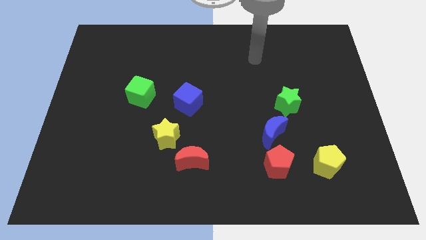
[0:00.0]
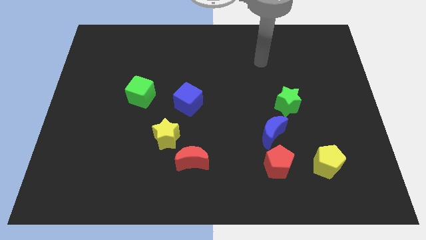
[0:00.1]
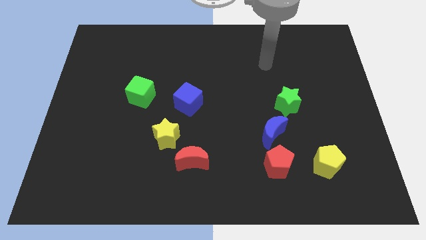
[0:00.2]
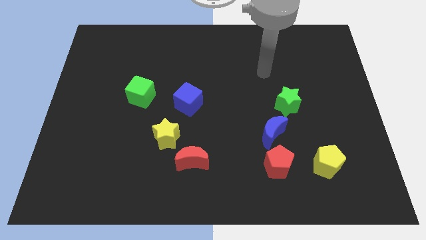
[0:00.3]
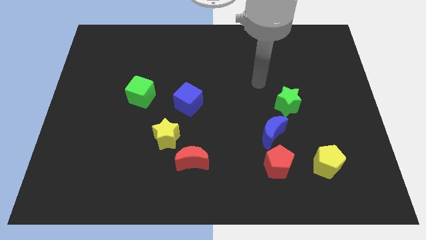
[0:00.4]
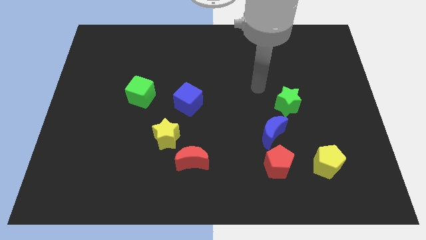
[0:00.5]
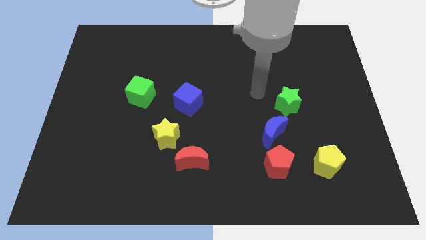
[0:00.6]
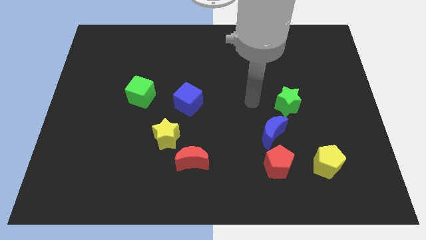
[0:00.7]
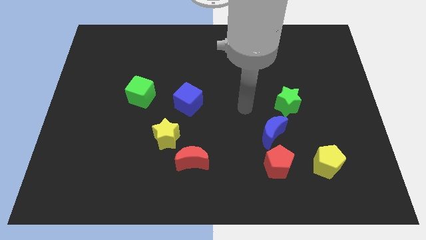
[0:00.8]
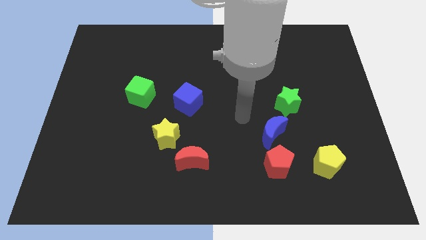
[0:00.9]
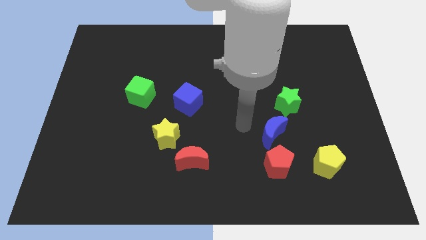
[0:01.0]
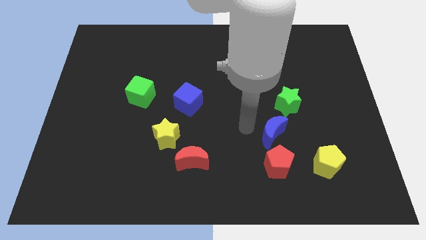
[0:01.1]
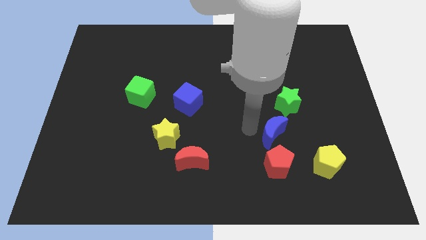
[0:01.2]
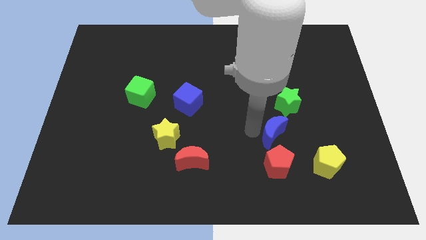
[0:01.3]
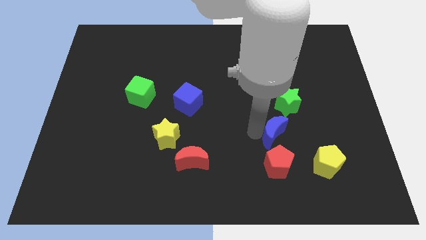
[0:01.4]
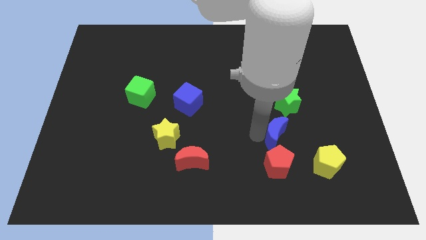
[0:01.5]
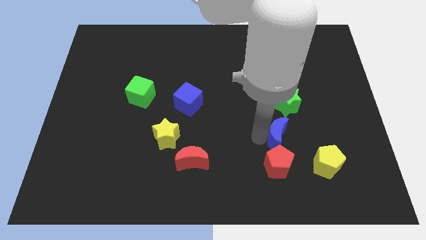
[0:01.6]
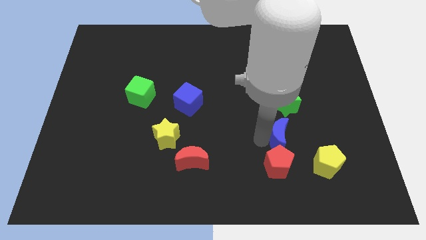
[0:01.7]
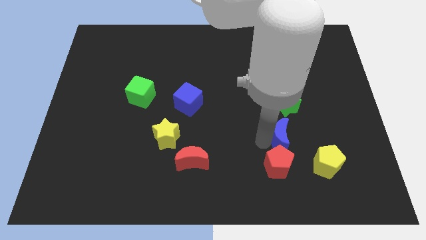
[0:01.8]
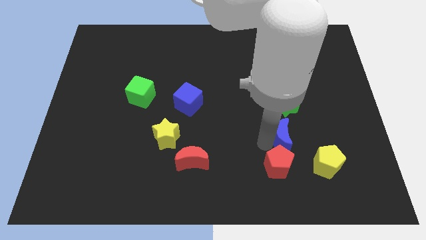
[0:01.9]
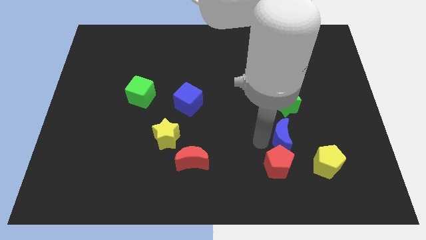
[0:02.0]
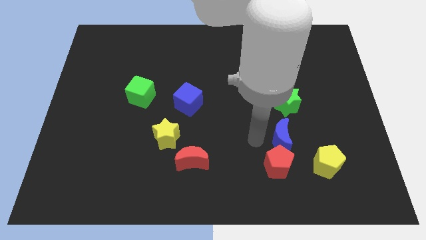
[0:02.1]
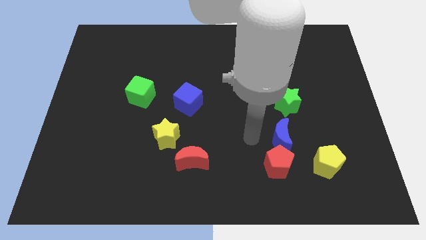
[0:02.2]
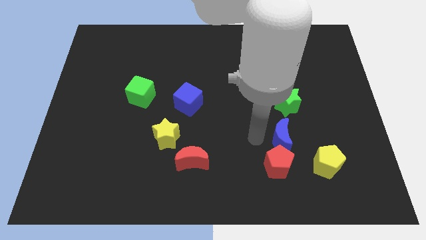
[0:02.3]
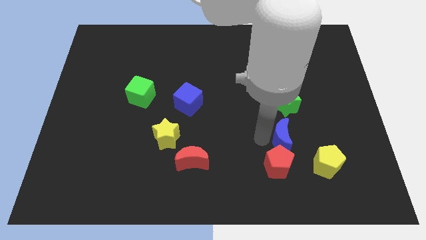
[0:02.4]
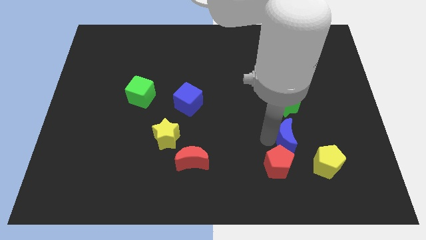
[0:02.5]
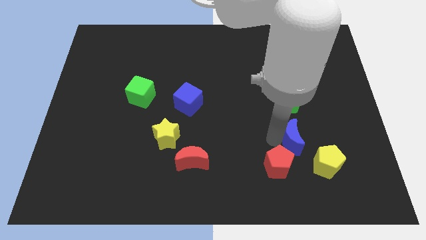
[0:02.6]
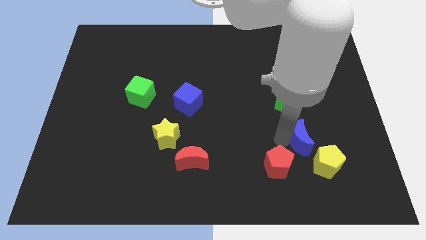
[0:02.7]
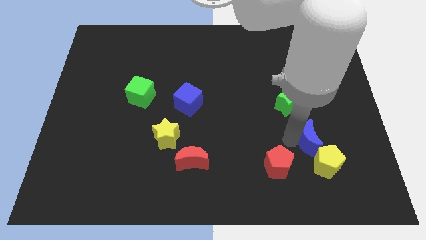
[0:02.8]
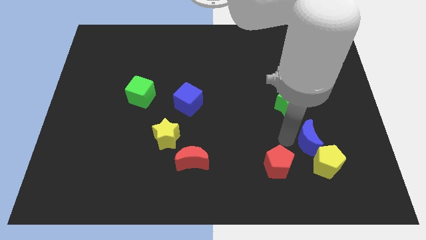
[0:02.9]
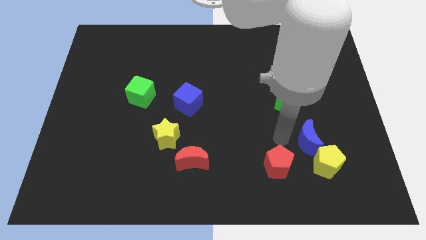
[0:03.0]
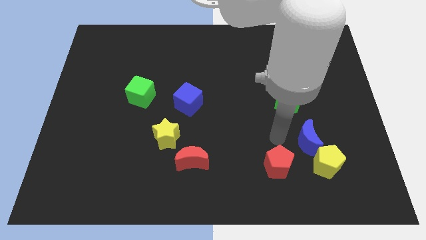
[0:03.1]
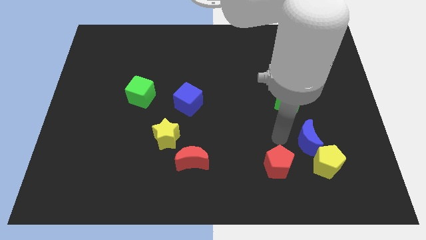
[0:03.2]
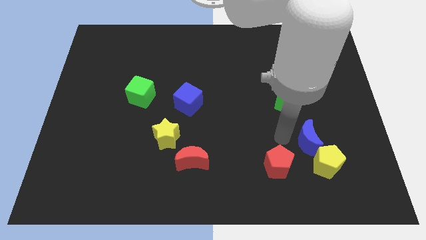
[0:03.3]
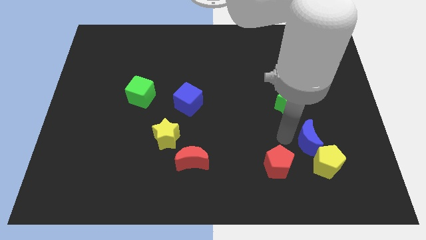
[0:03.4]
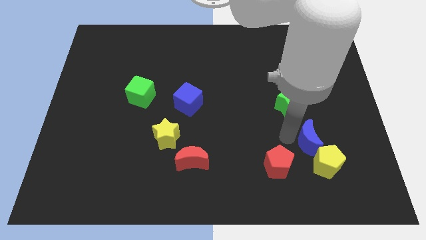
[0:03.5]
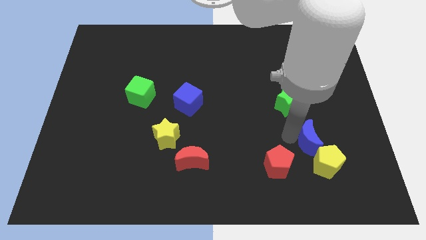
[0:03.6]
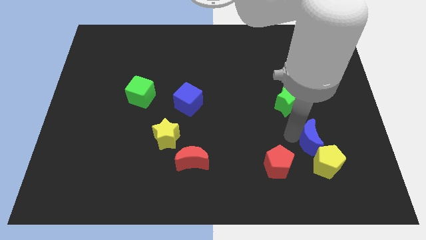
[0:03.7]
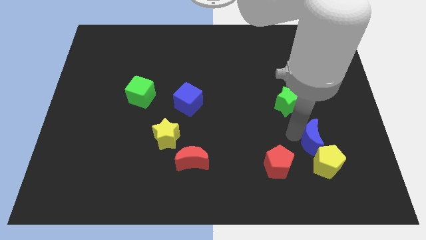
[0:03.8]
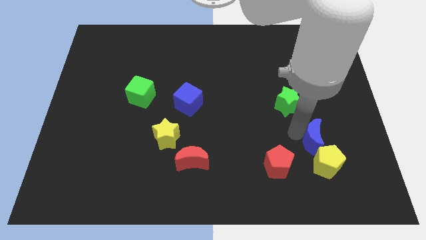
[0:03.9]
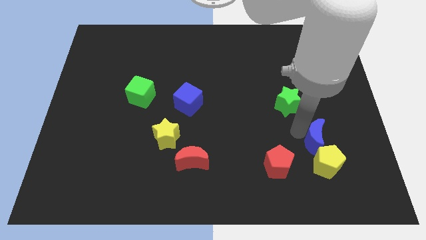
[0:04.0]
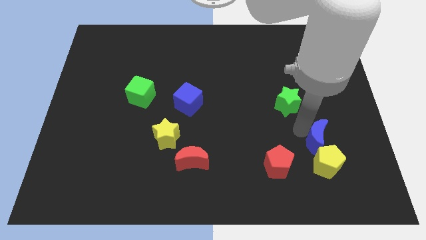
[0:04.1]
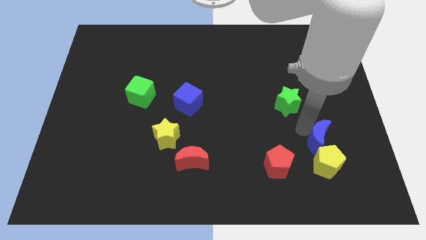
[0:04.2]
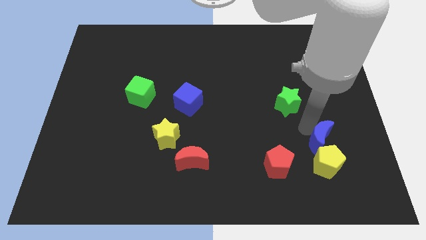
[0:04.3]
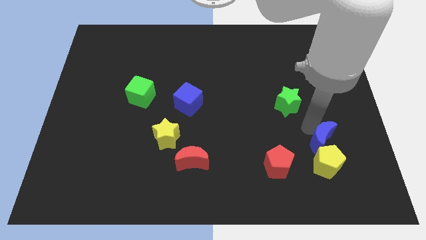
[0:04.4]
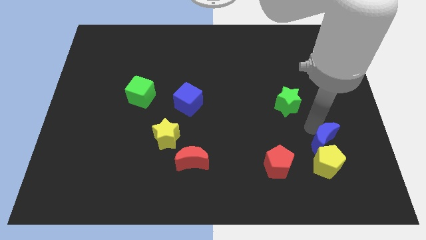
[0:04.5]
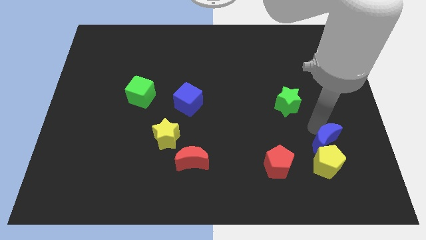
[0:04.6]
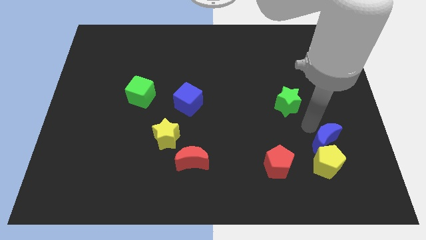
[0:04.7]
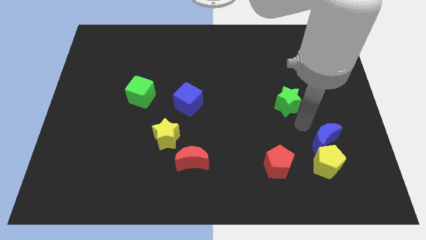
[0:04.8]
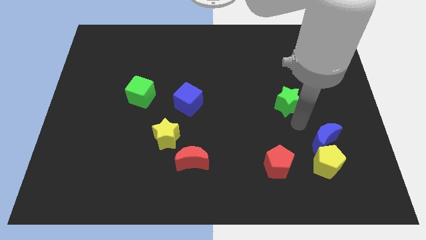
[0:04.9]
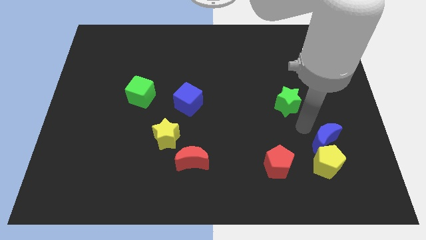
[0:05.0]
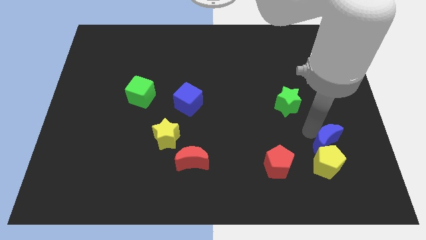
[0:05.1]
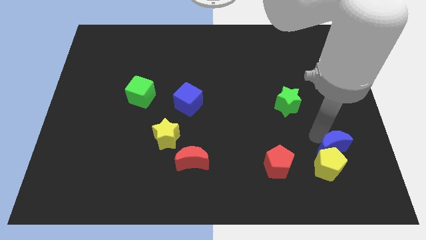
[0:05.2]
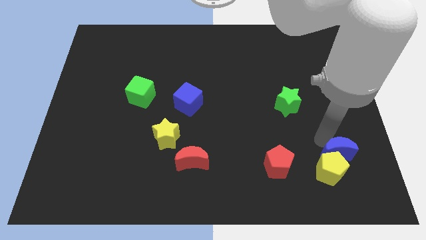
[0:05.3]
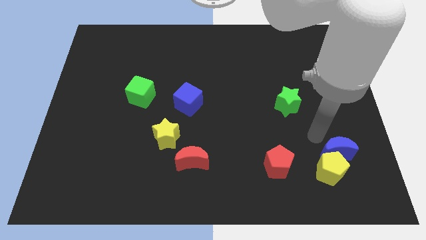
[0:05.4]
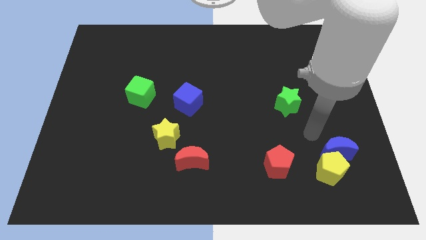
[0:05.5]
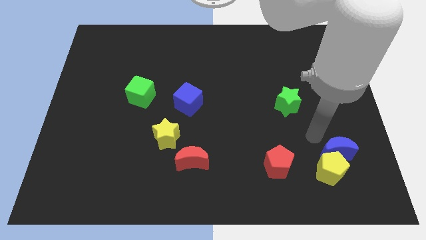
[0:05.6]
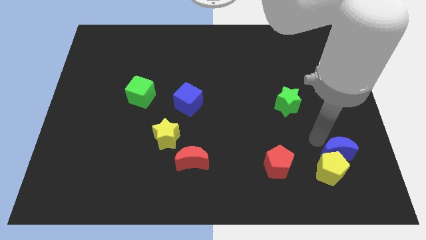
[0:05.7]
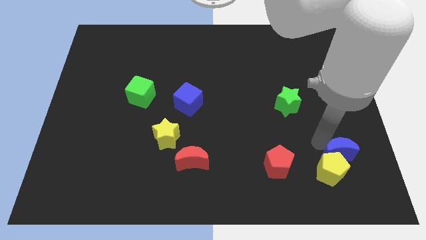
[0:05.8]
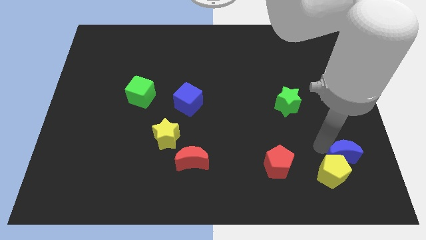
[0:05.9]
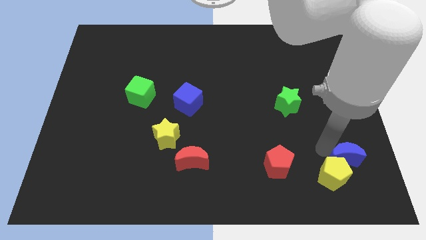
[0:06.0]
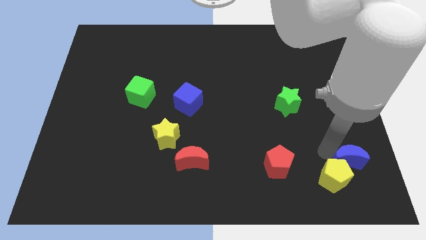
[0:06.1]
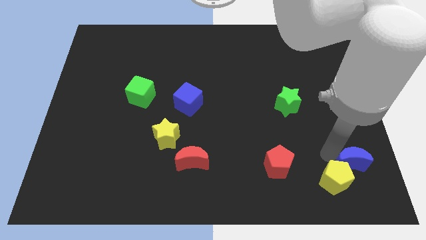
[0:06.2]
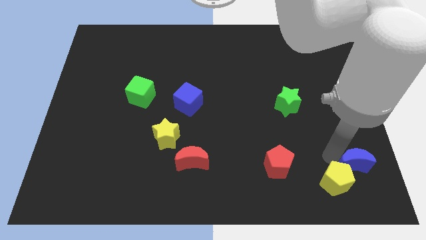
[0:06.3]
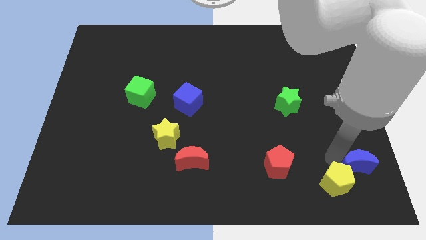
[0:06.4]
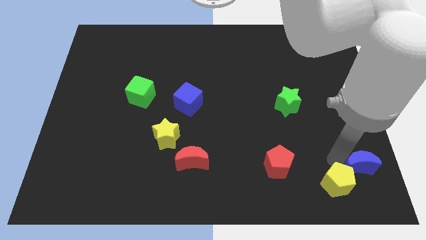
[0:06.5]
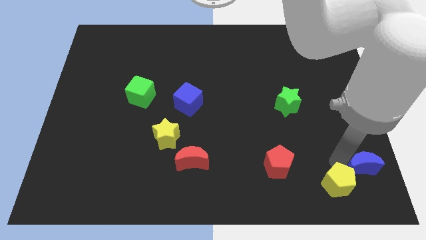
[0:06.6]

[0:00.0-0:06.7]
put the blue moon to the bottom right
